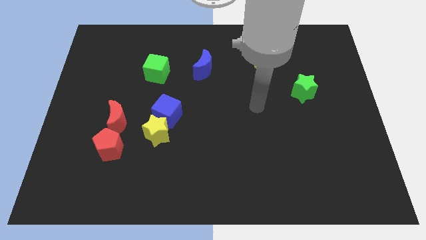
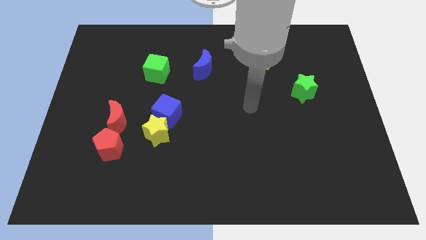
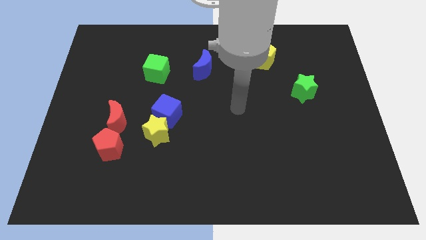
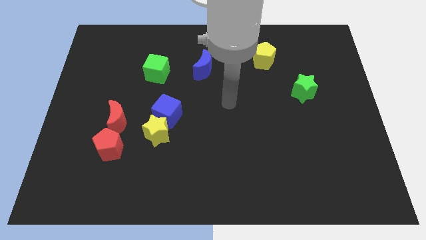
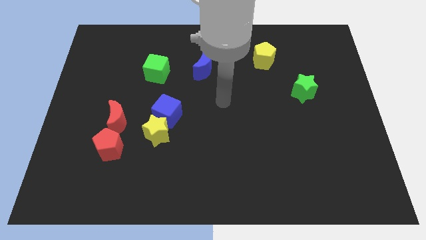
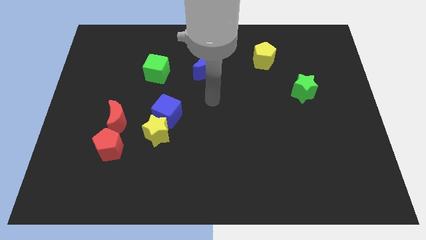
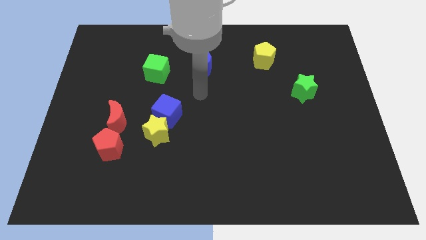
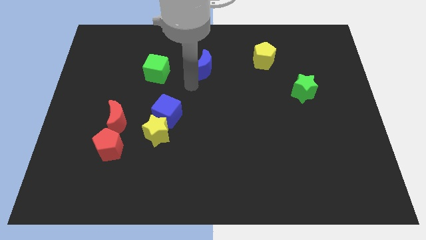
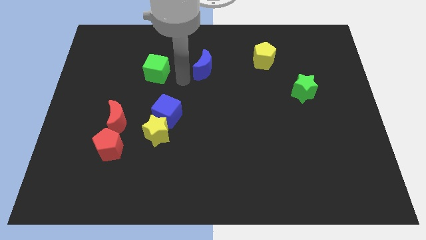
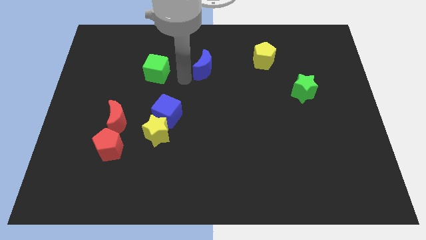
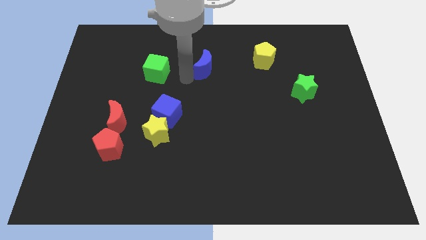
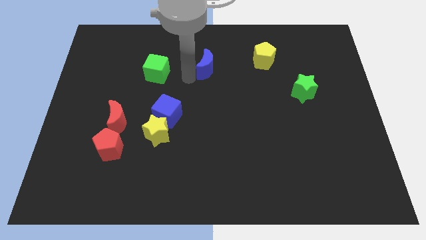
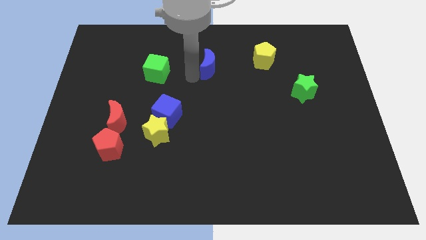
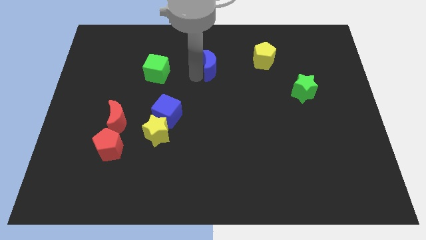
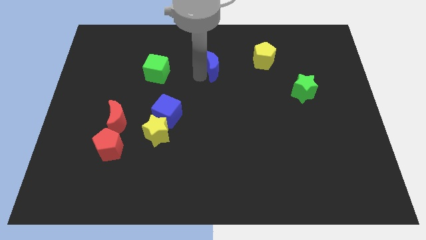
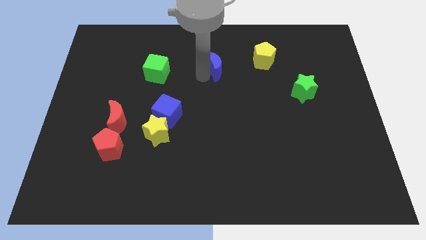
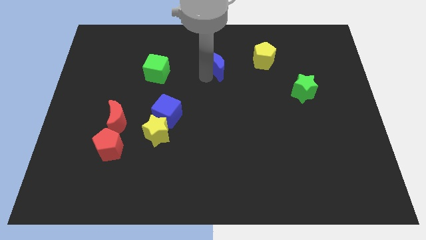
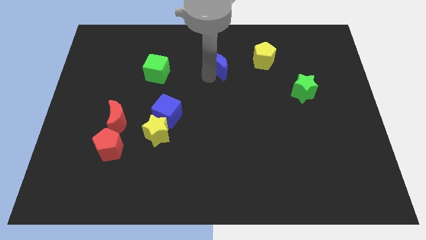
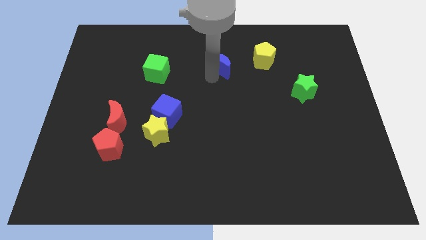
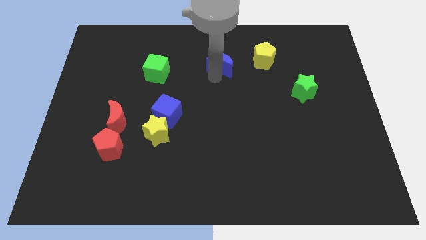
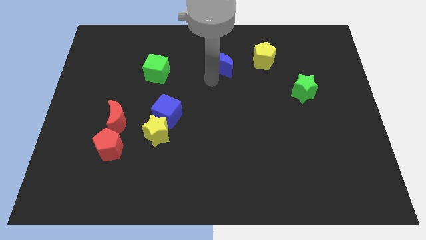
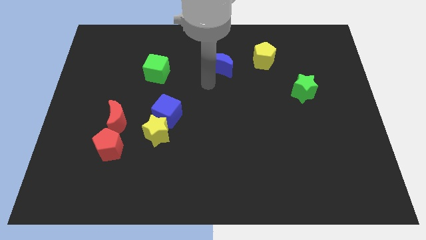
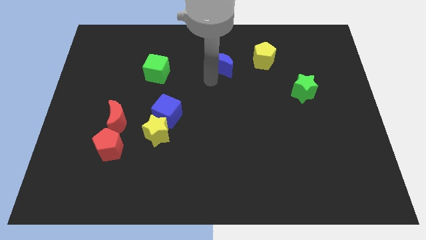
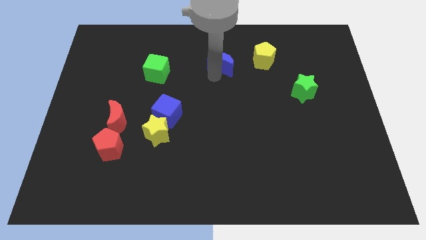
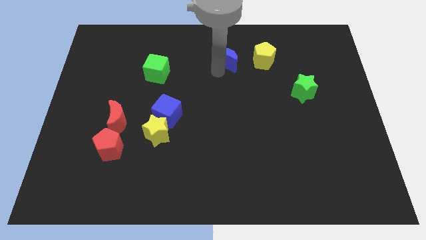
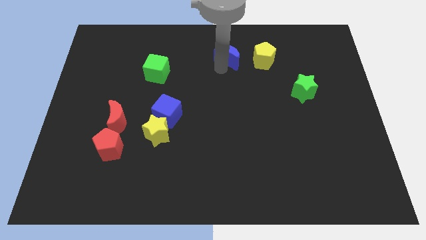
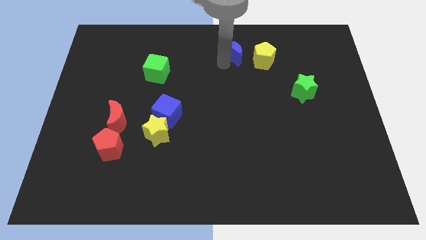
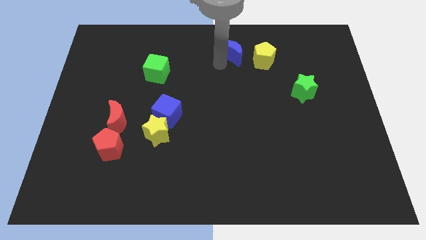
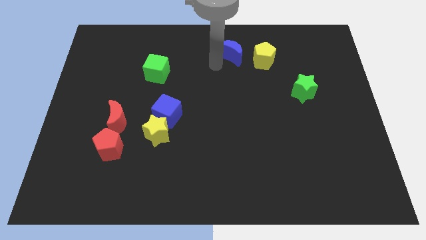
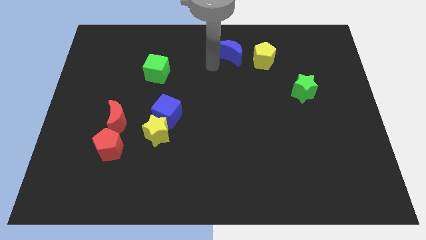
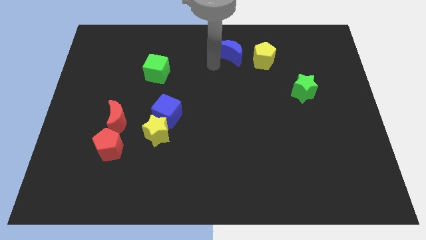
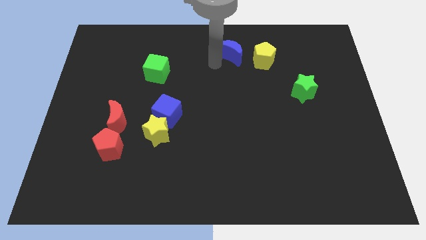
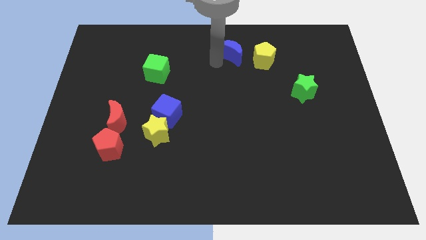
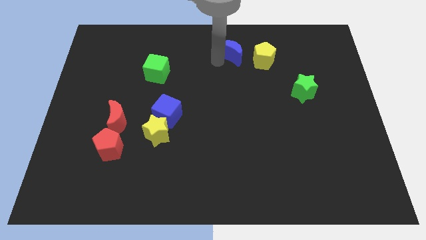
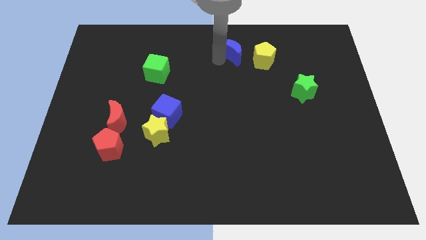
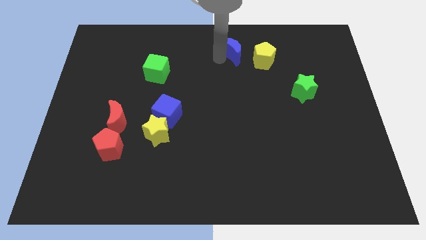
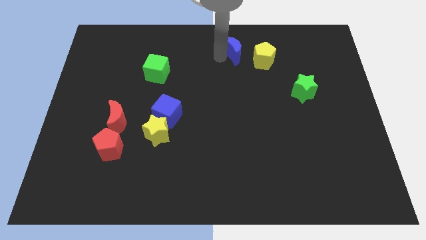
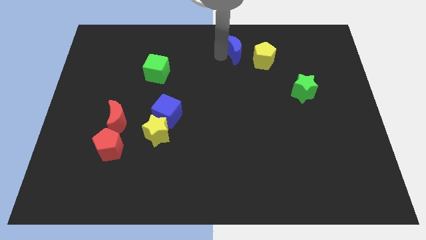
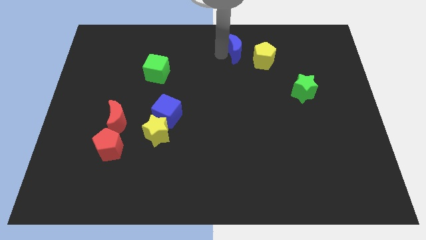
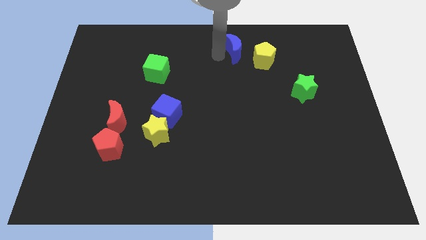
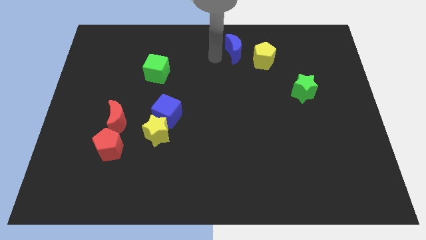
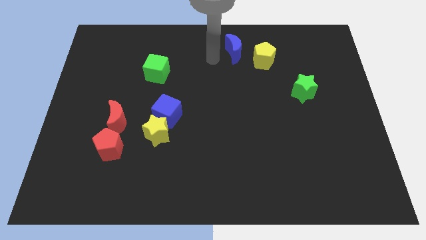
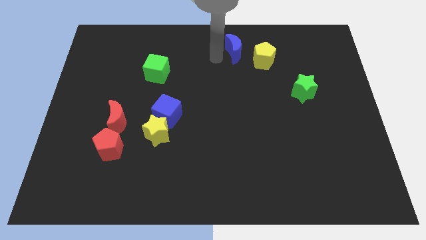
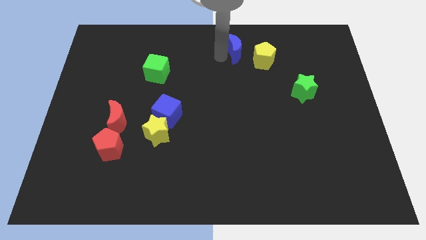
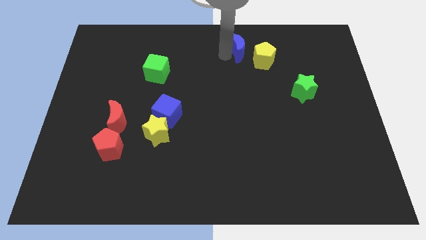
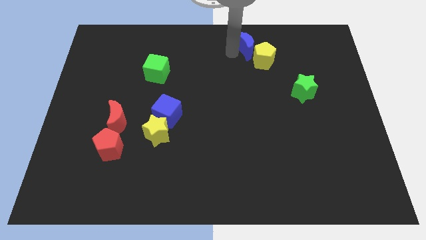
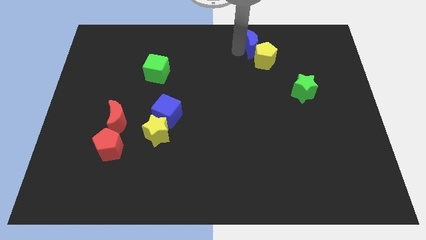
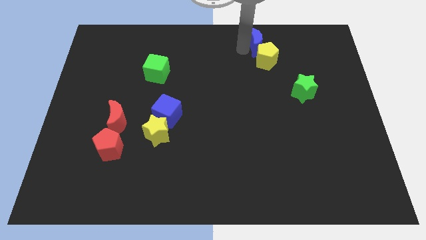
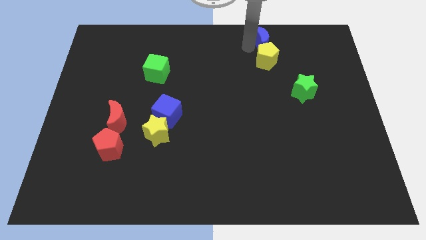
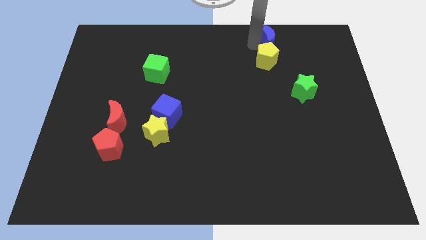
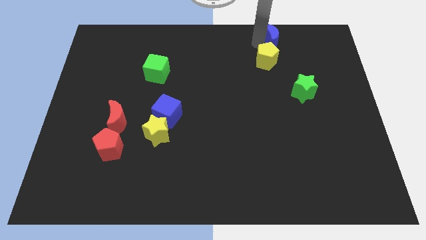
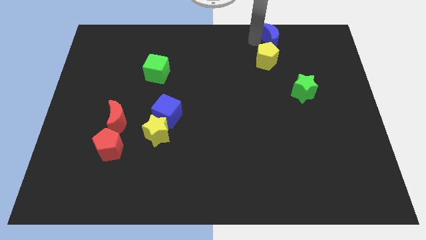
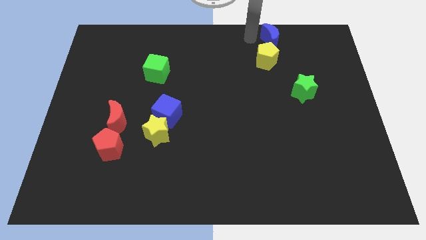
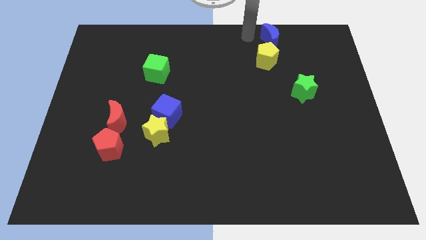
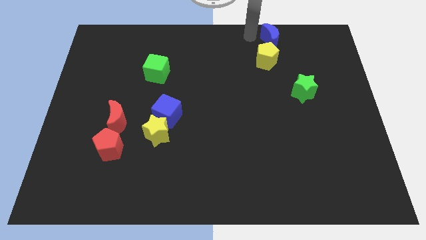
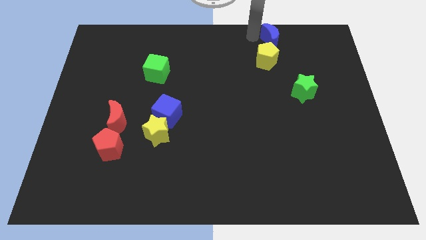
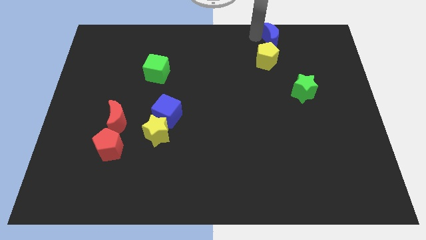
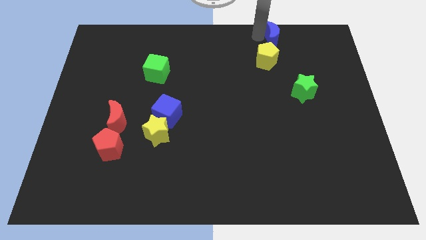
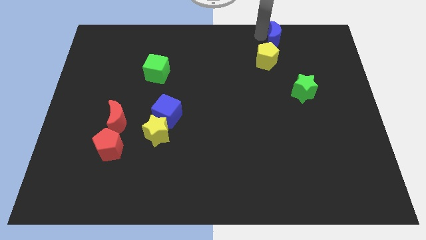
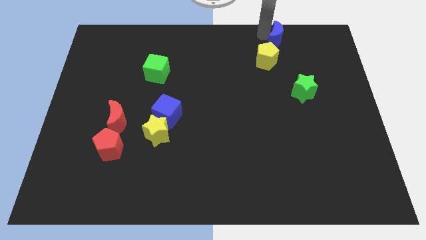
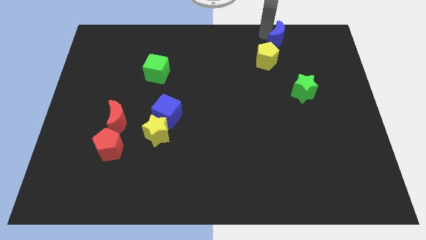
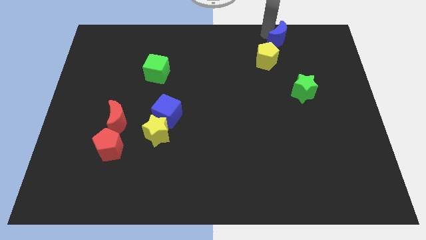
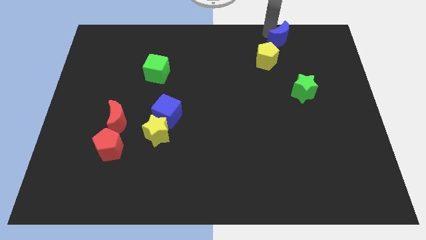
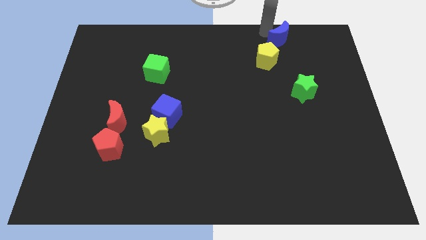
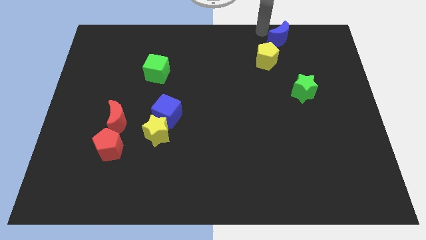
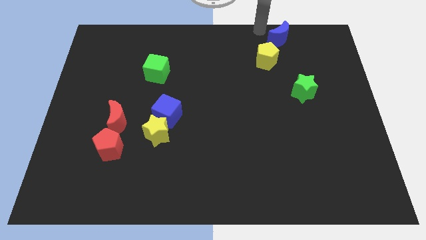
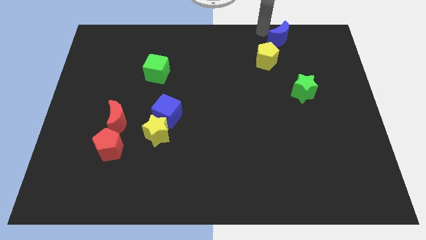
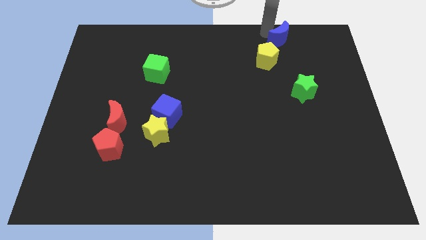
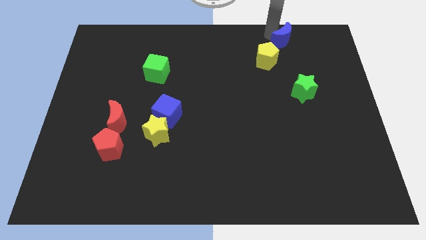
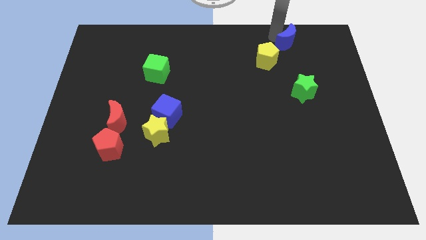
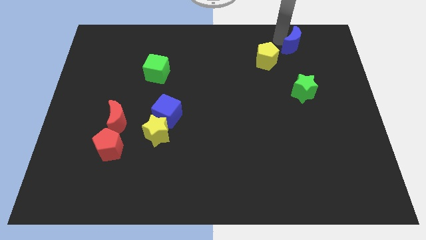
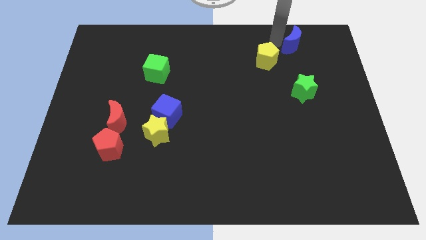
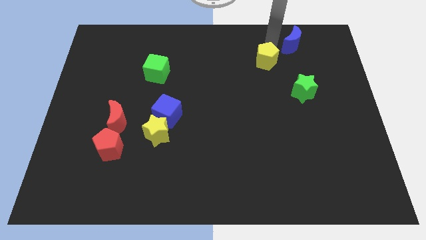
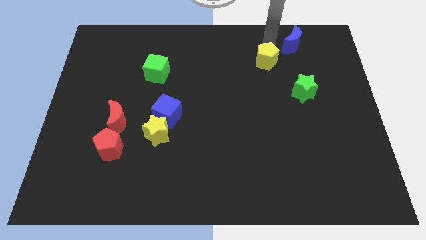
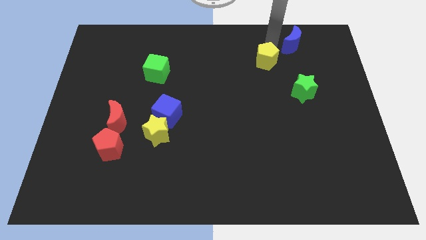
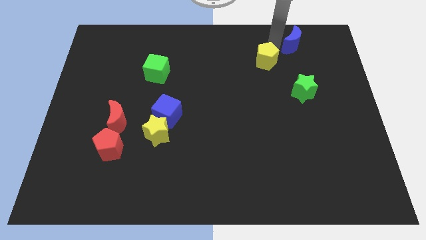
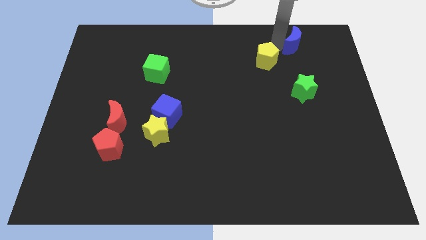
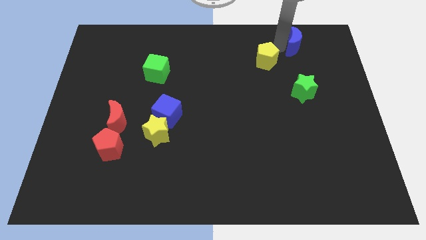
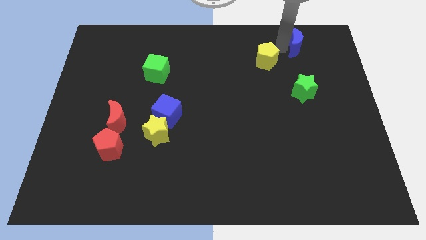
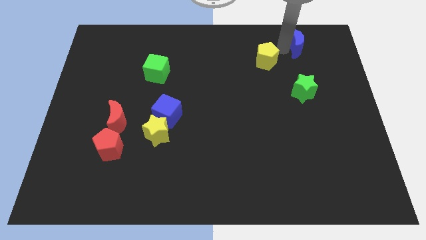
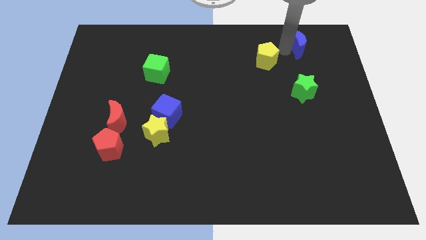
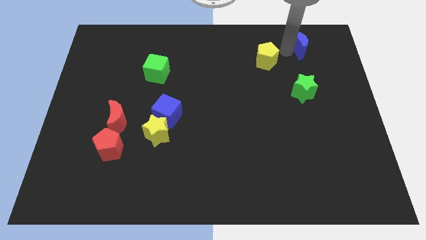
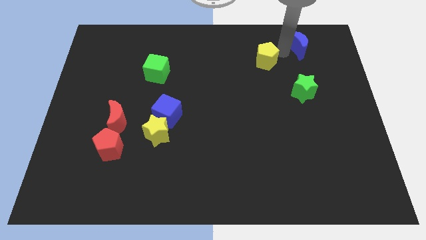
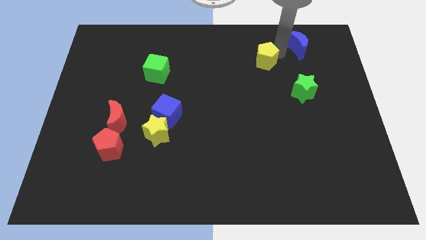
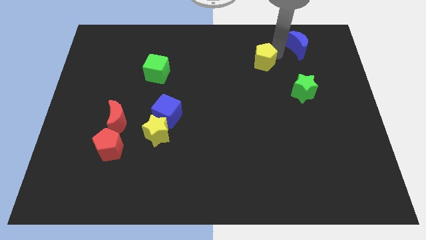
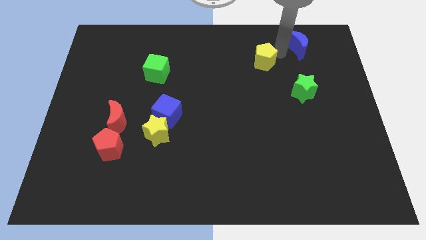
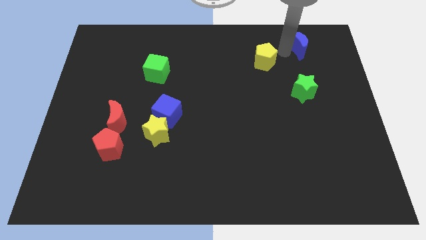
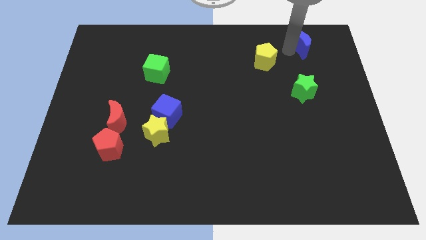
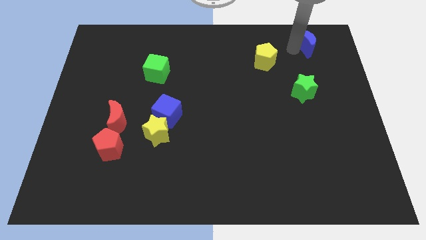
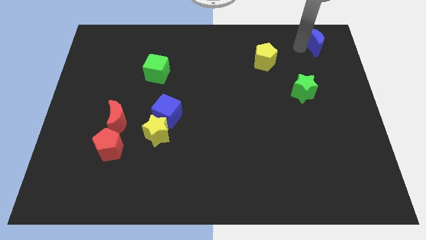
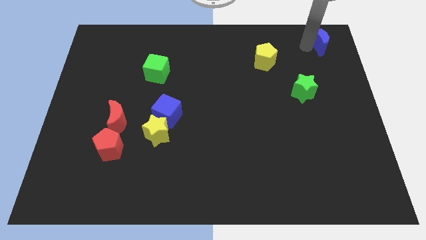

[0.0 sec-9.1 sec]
put the blue moon to the top right corner
